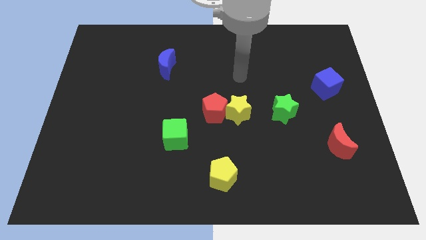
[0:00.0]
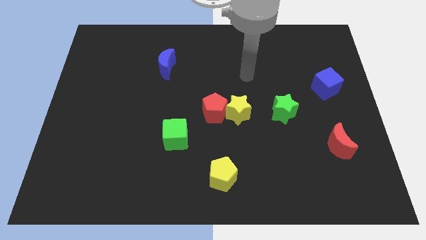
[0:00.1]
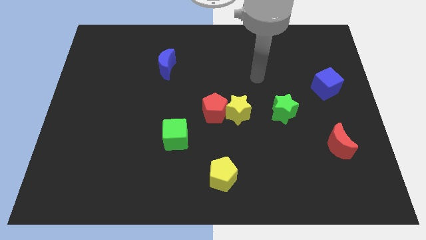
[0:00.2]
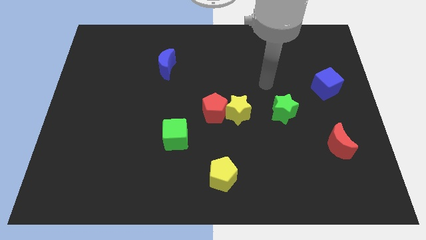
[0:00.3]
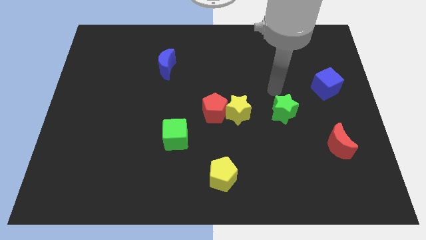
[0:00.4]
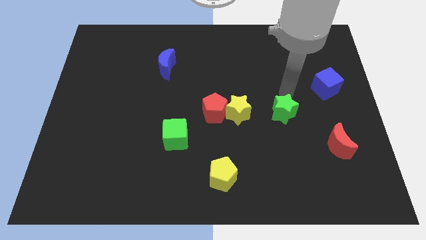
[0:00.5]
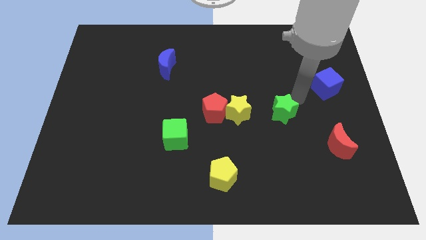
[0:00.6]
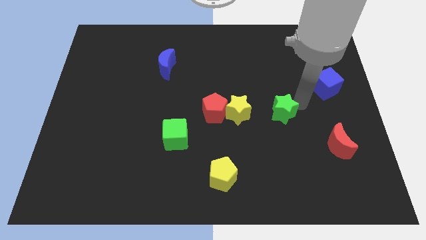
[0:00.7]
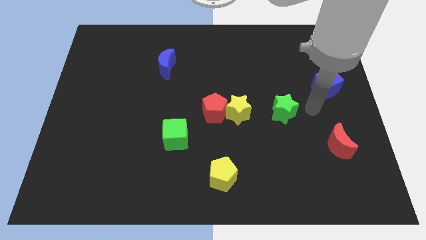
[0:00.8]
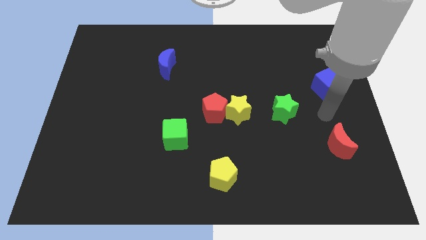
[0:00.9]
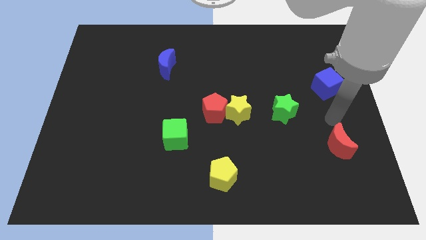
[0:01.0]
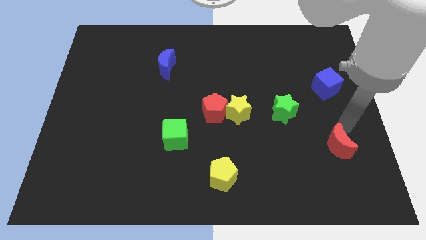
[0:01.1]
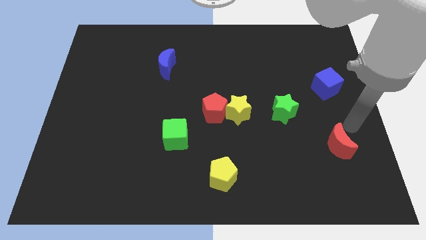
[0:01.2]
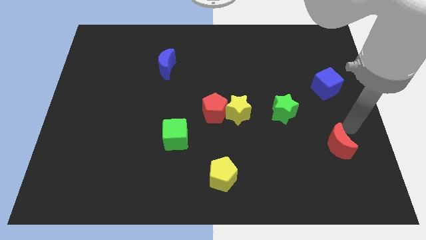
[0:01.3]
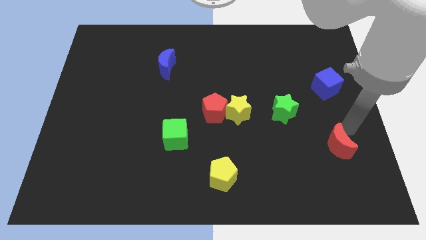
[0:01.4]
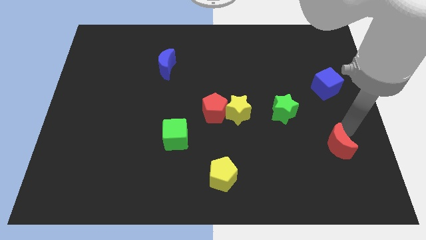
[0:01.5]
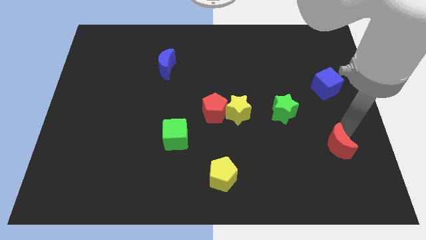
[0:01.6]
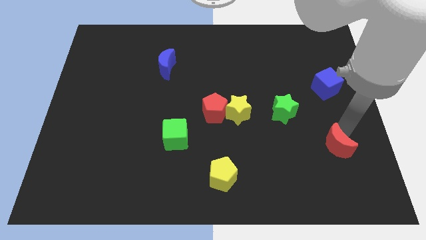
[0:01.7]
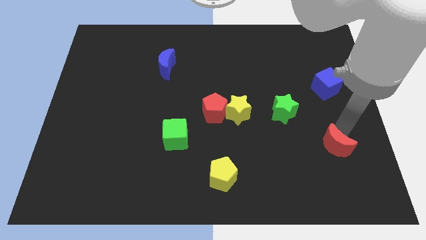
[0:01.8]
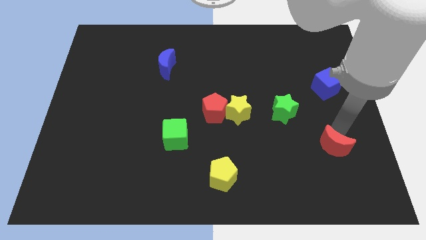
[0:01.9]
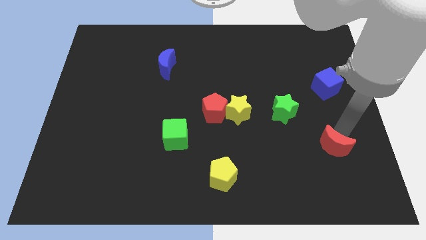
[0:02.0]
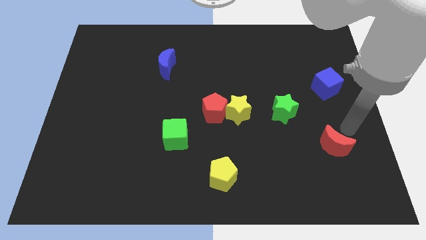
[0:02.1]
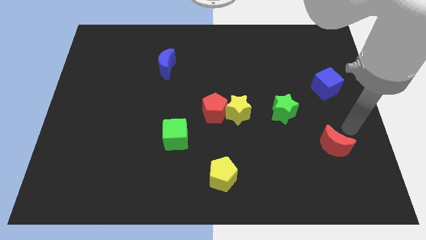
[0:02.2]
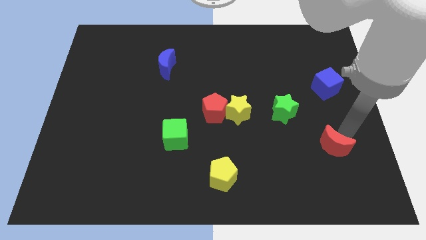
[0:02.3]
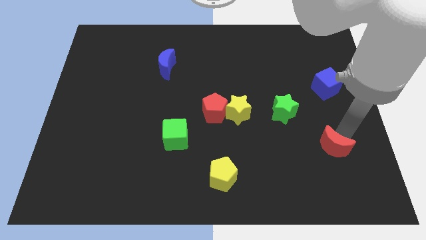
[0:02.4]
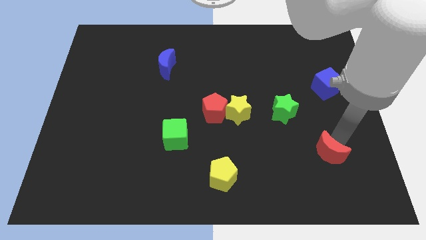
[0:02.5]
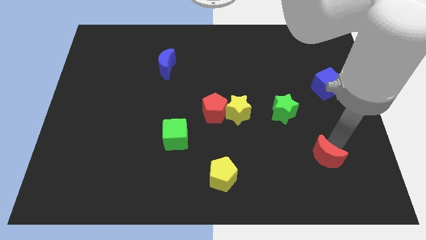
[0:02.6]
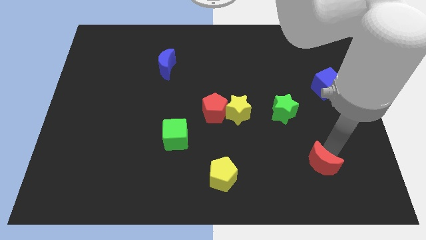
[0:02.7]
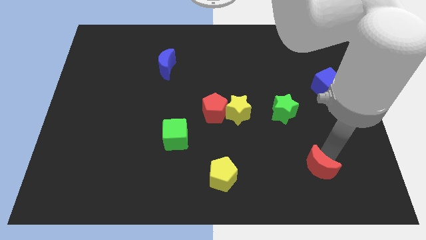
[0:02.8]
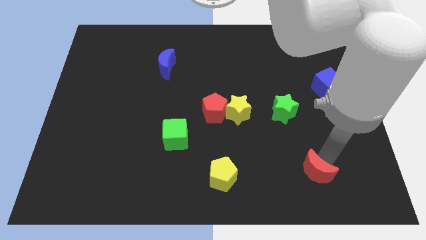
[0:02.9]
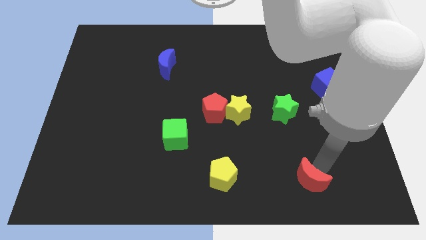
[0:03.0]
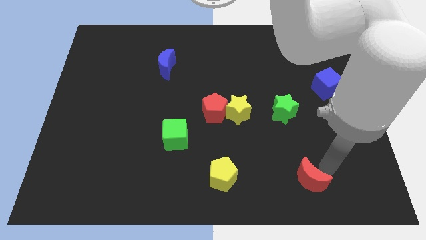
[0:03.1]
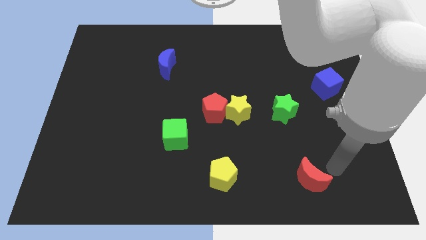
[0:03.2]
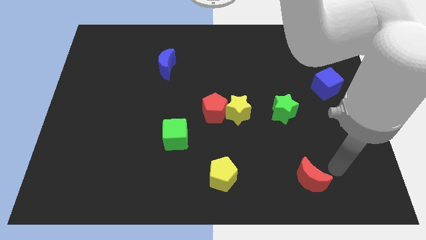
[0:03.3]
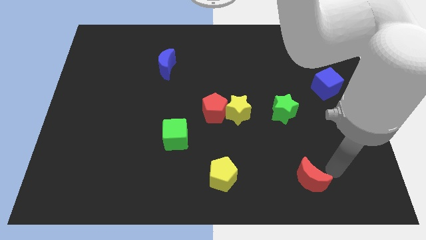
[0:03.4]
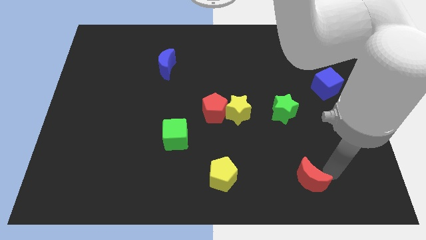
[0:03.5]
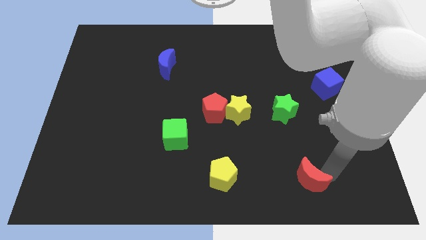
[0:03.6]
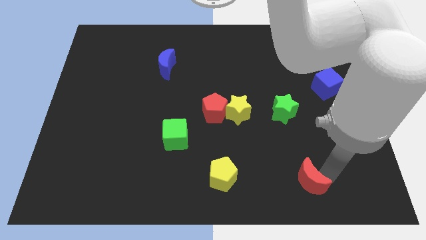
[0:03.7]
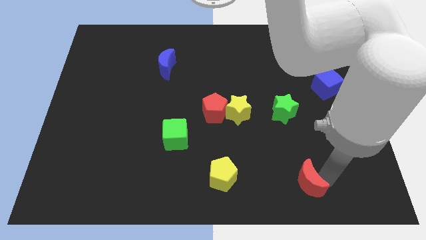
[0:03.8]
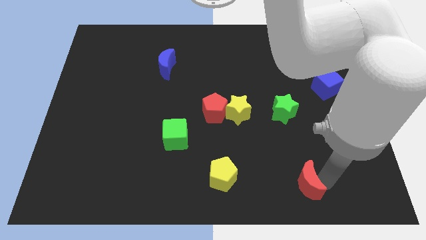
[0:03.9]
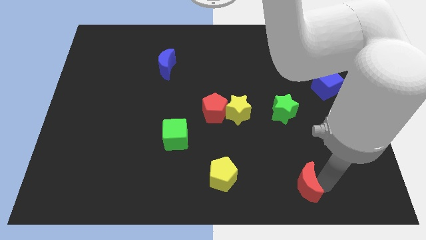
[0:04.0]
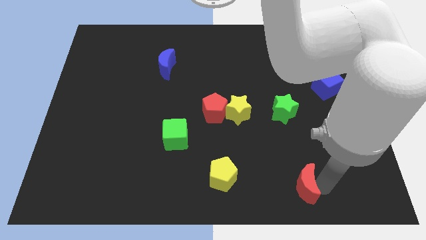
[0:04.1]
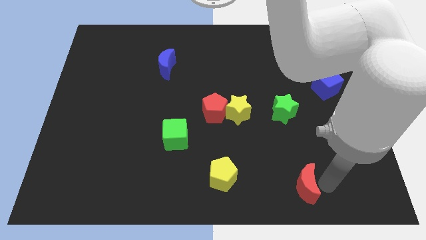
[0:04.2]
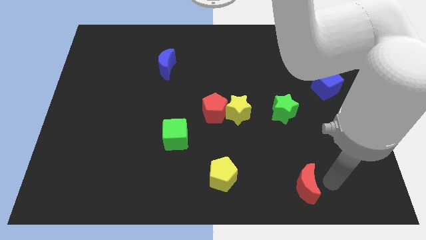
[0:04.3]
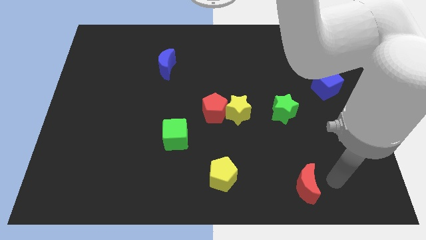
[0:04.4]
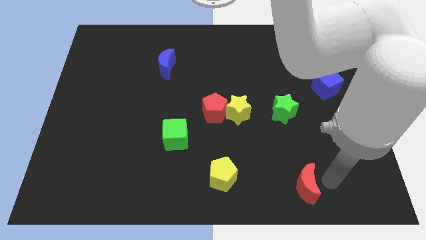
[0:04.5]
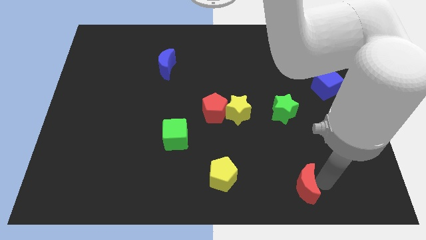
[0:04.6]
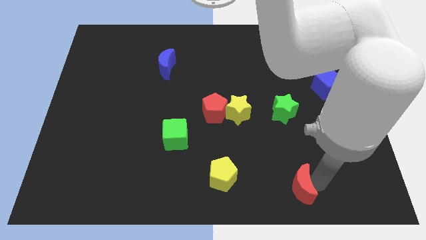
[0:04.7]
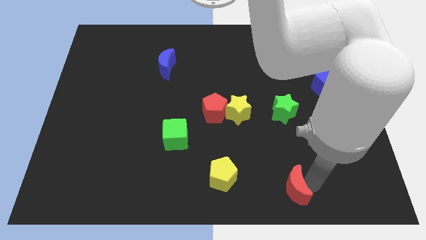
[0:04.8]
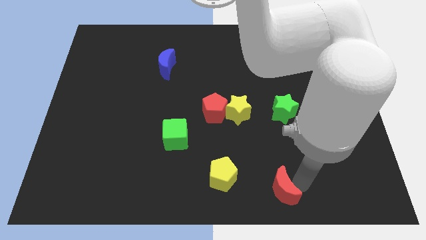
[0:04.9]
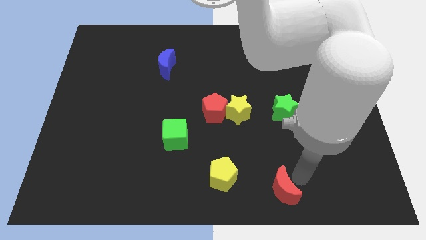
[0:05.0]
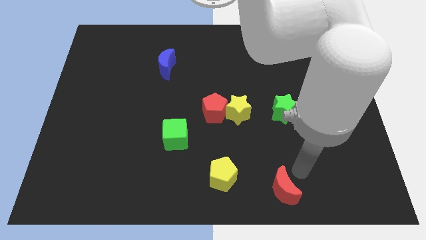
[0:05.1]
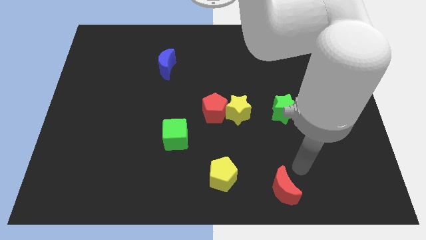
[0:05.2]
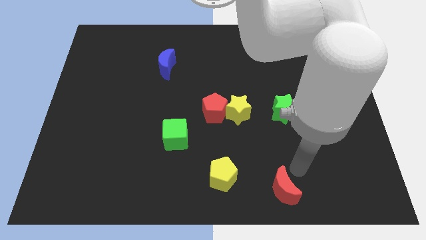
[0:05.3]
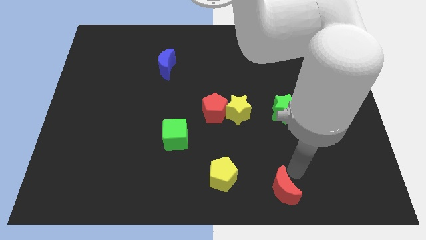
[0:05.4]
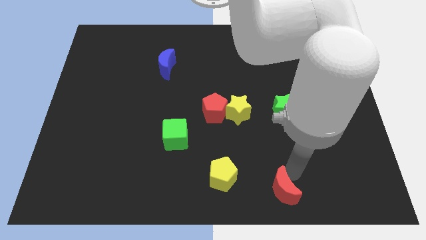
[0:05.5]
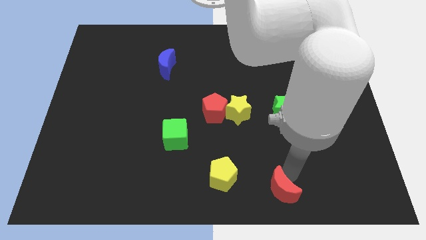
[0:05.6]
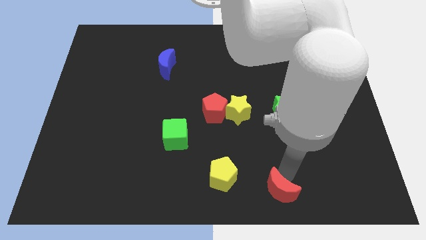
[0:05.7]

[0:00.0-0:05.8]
move the red moon to the bottom side

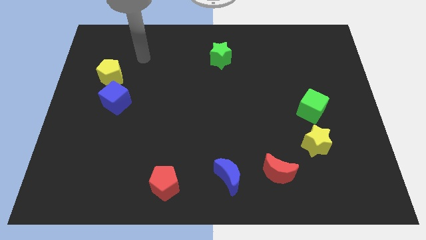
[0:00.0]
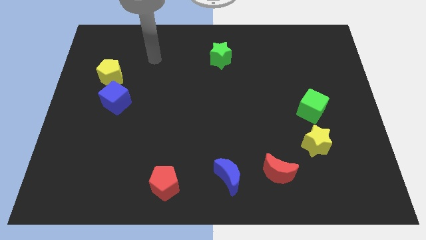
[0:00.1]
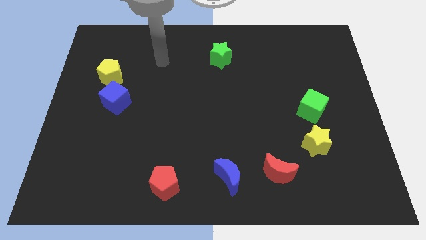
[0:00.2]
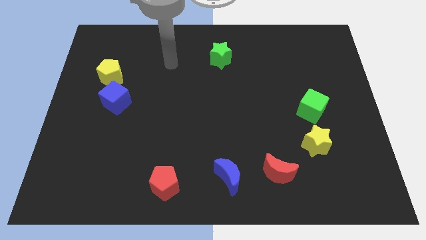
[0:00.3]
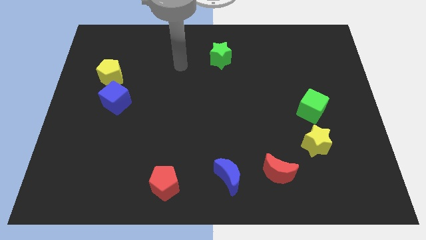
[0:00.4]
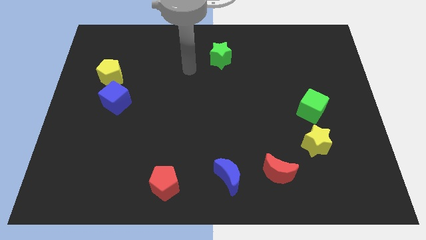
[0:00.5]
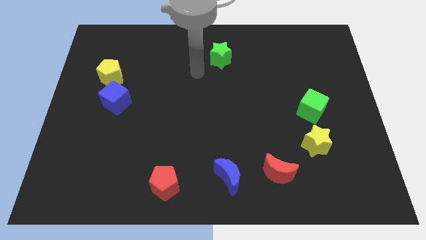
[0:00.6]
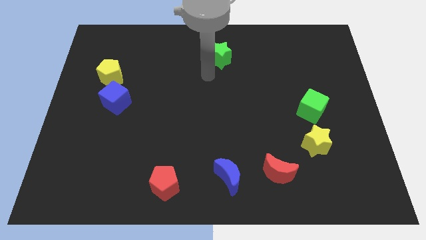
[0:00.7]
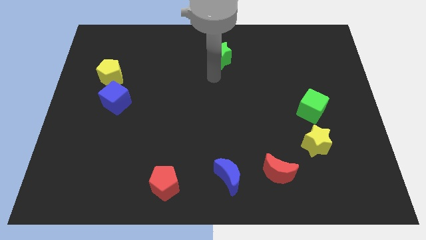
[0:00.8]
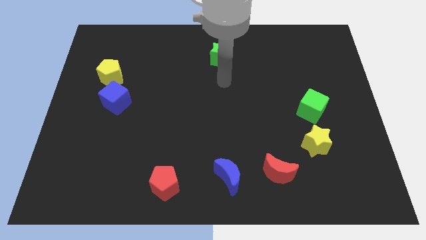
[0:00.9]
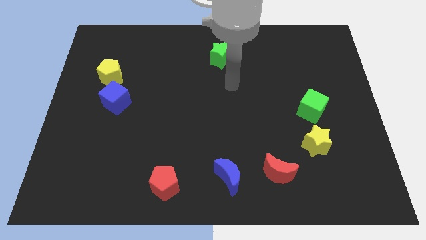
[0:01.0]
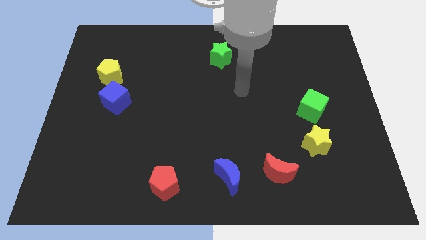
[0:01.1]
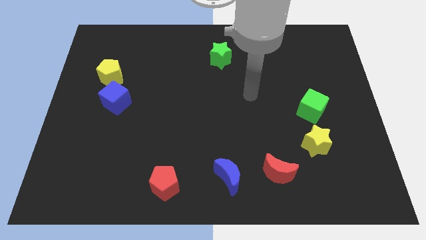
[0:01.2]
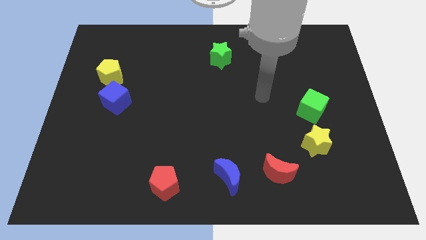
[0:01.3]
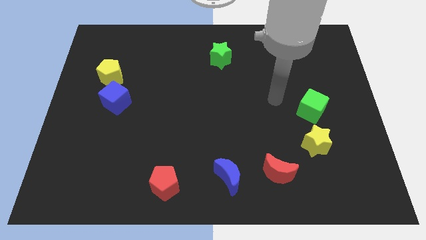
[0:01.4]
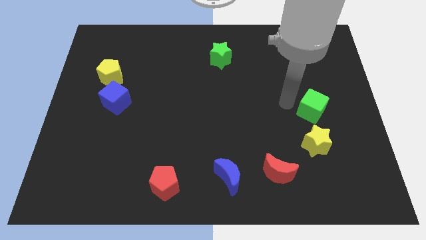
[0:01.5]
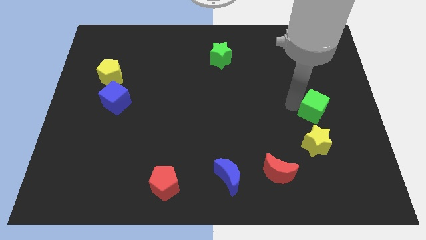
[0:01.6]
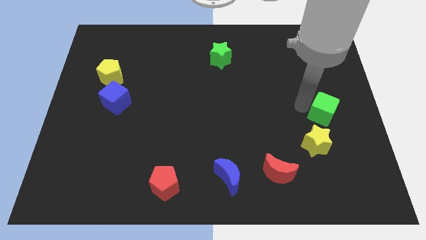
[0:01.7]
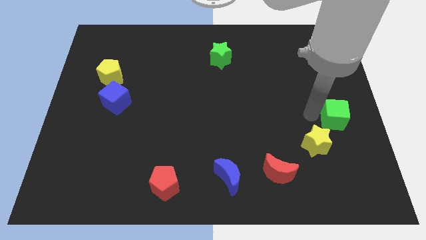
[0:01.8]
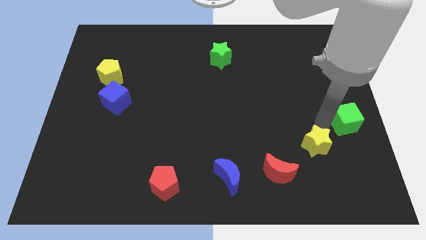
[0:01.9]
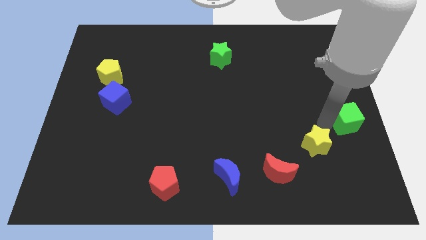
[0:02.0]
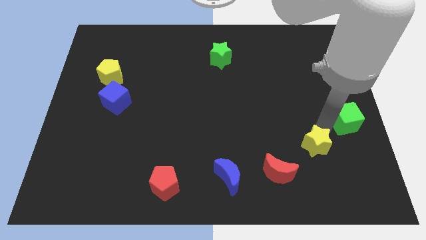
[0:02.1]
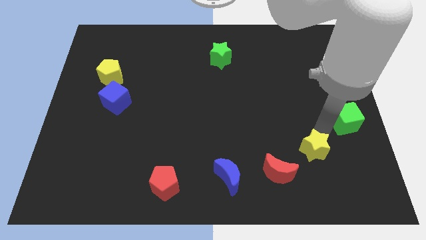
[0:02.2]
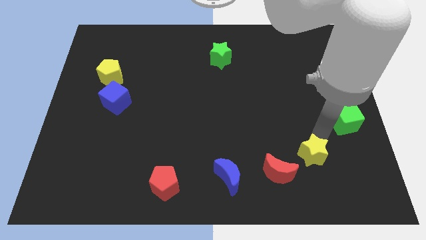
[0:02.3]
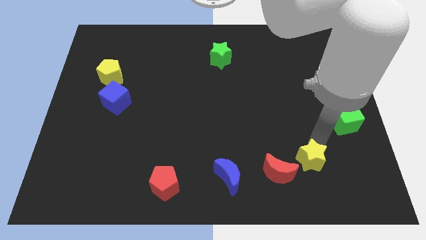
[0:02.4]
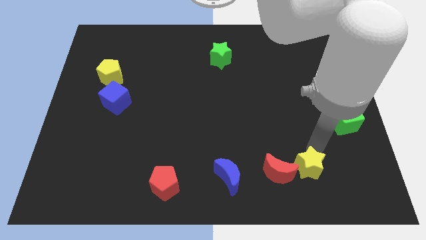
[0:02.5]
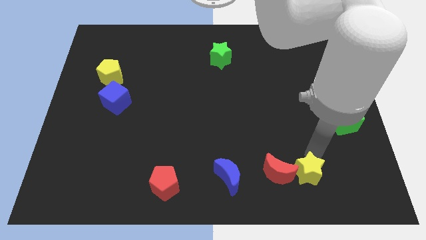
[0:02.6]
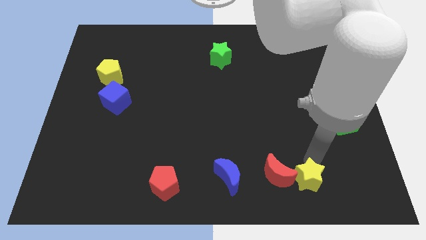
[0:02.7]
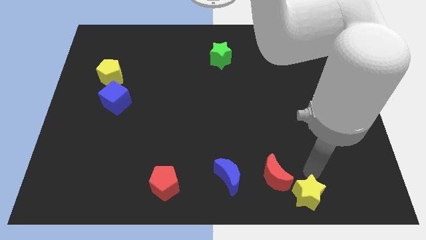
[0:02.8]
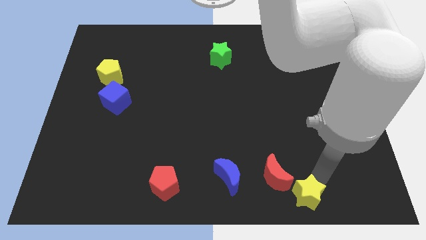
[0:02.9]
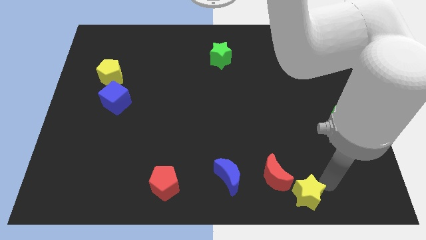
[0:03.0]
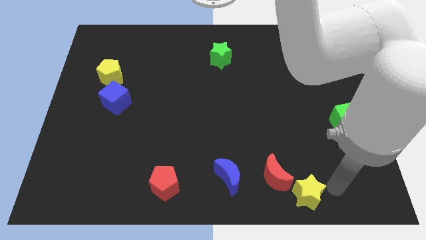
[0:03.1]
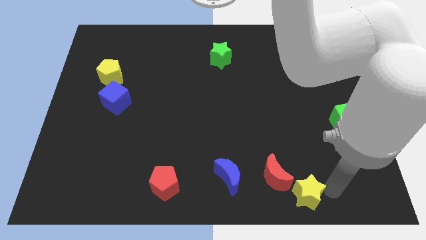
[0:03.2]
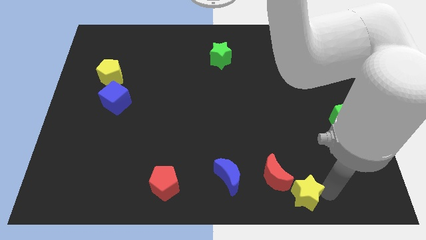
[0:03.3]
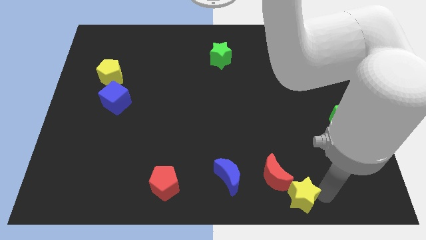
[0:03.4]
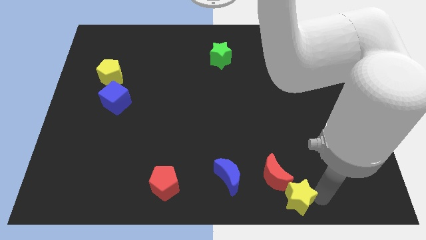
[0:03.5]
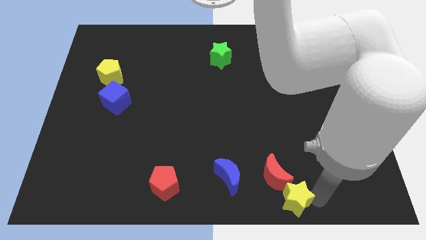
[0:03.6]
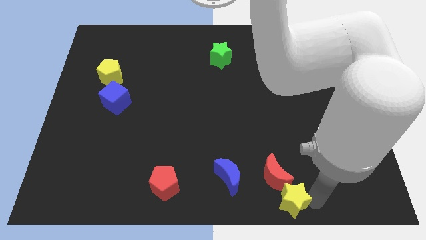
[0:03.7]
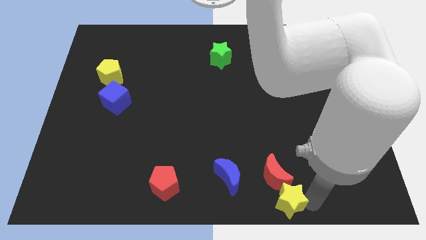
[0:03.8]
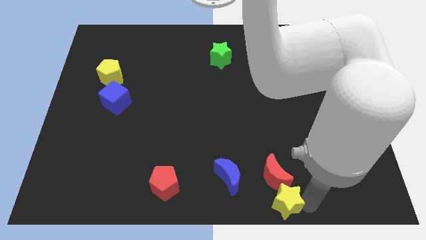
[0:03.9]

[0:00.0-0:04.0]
move the yellow star to the bottom side
